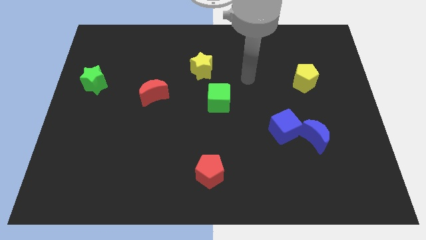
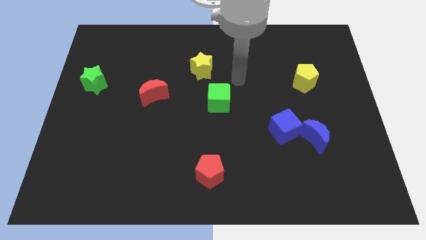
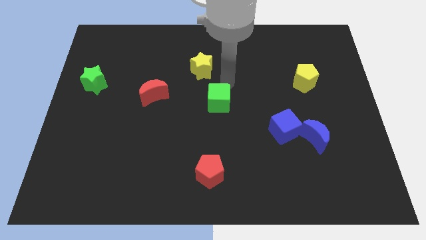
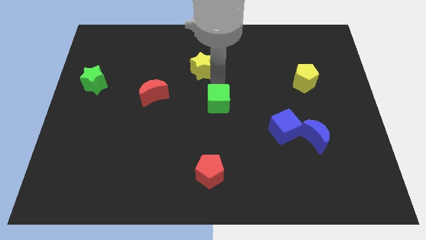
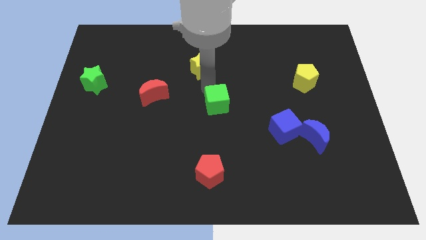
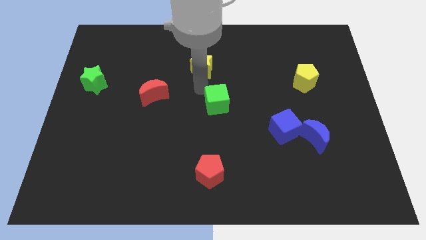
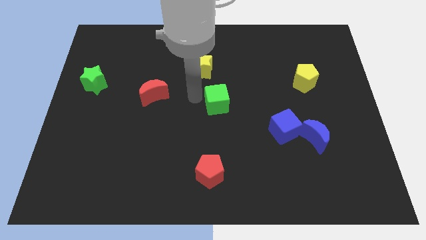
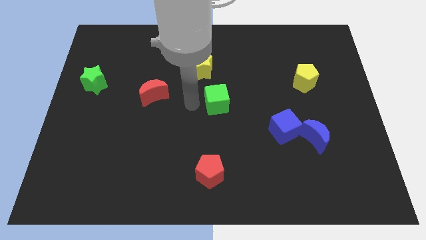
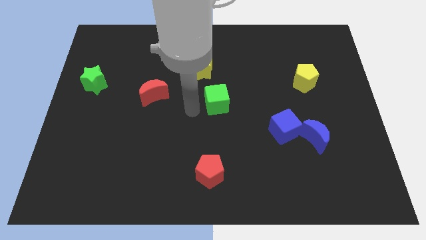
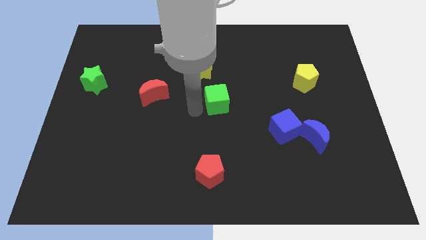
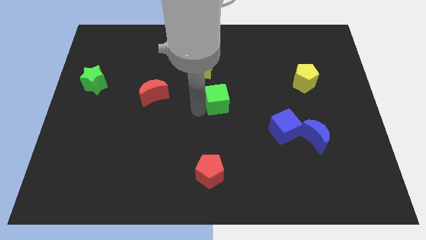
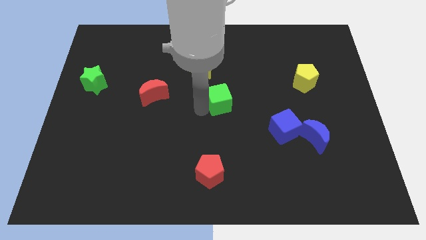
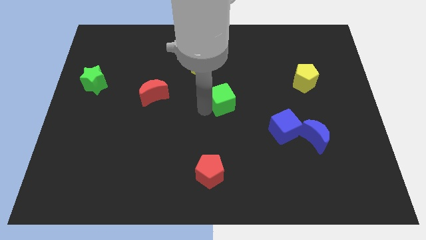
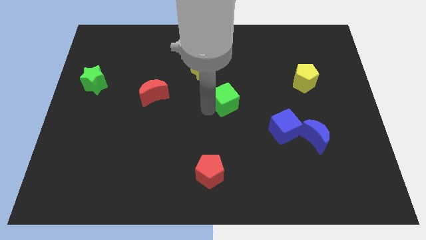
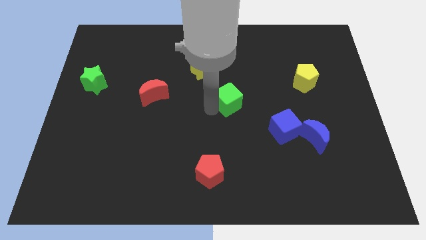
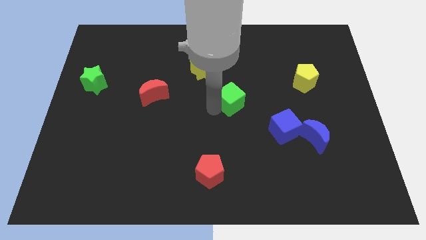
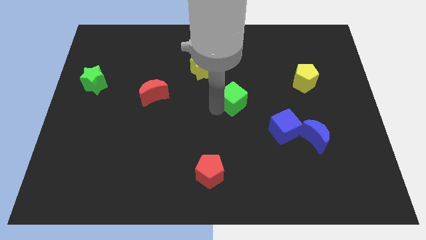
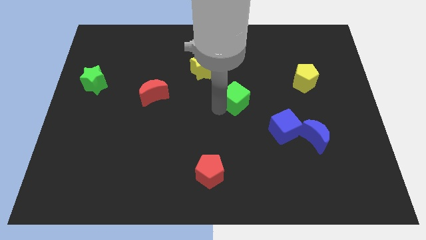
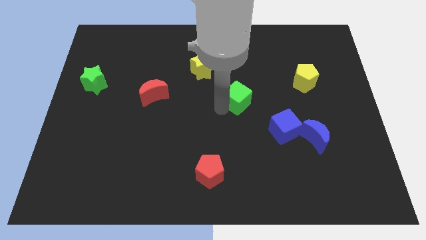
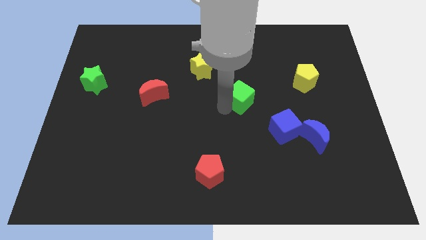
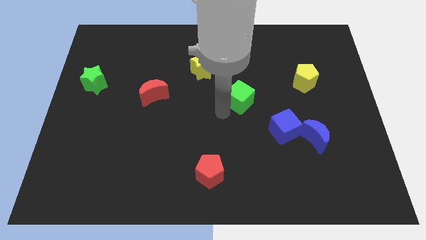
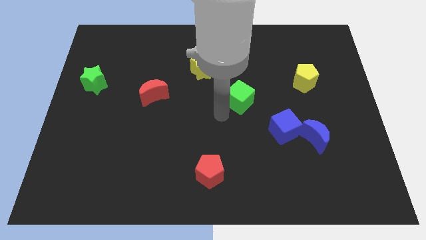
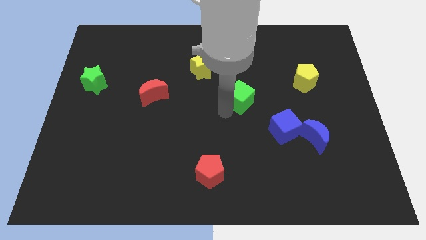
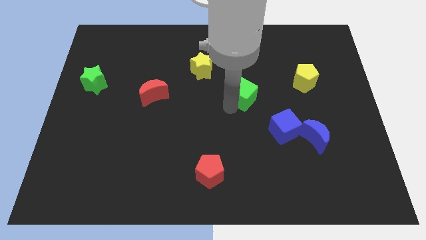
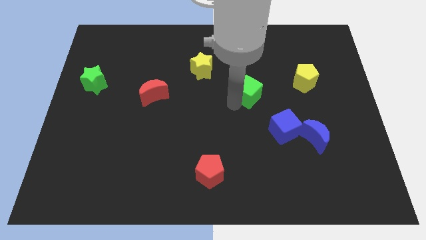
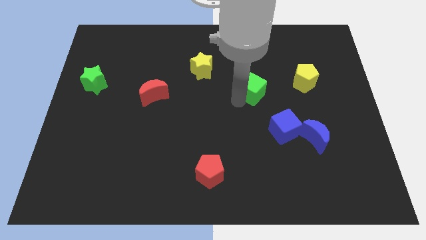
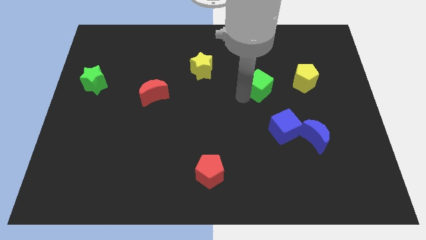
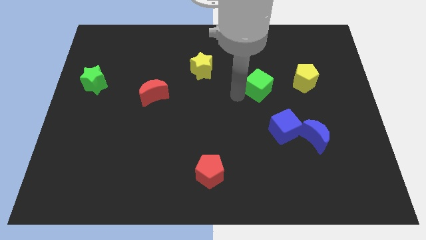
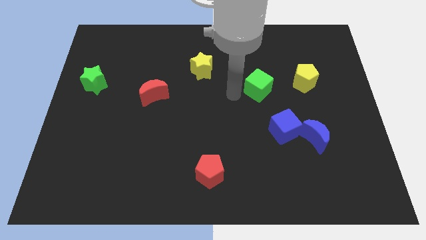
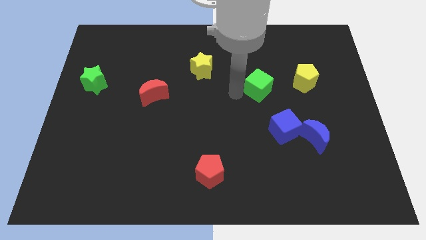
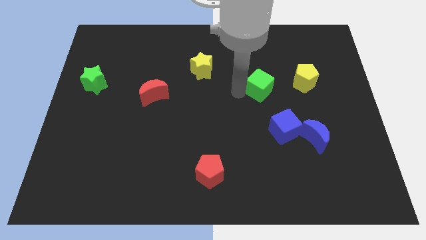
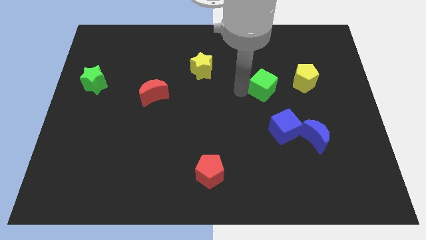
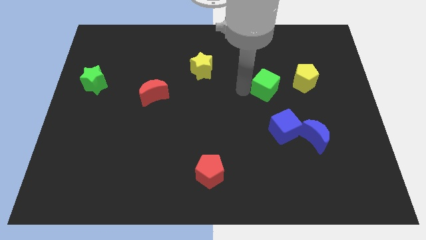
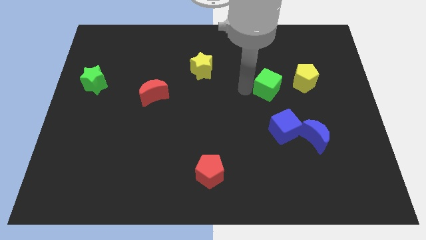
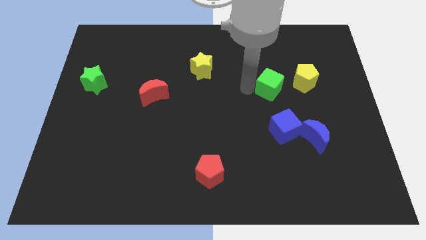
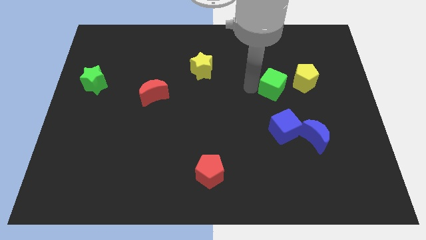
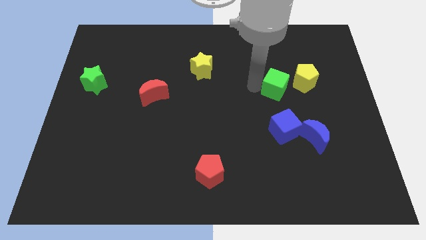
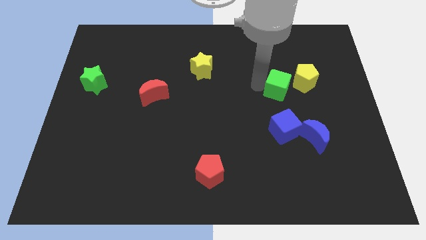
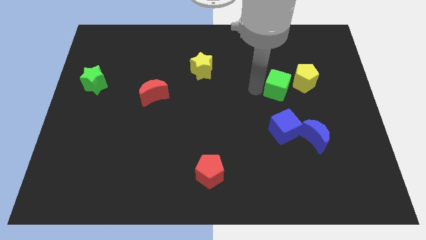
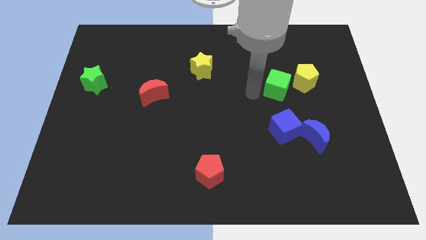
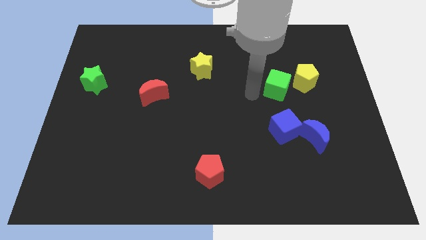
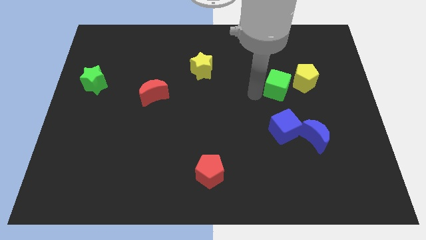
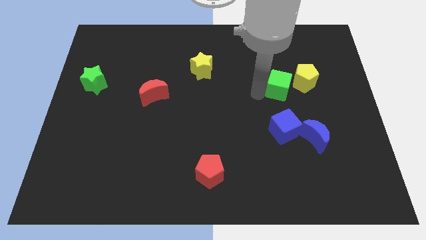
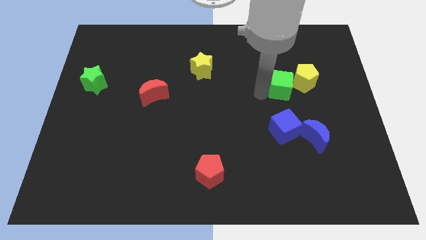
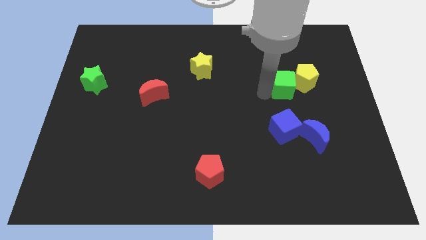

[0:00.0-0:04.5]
move the green cube close to the yellow pentagon

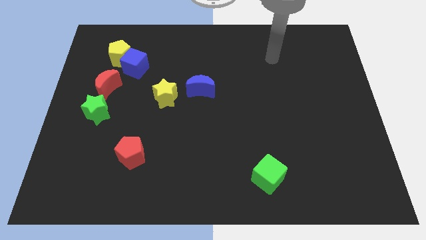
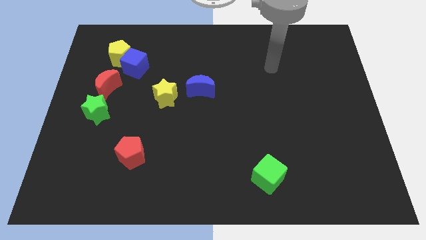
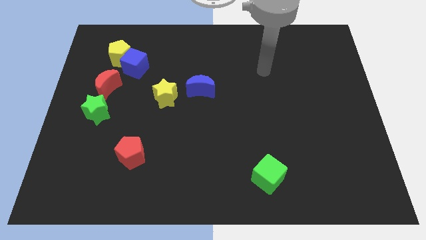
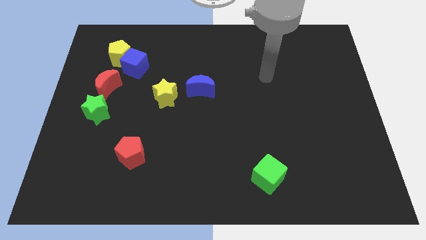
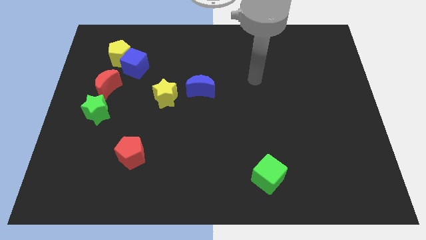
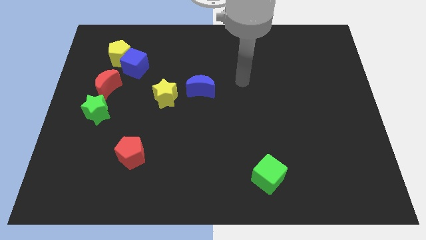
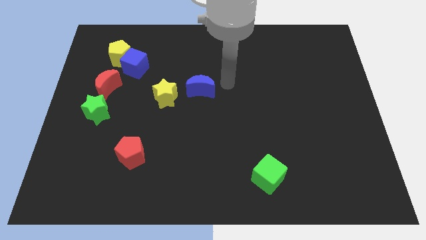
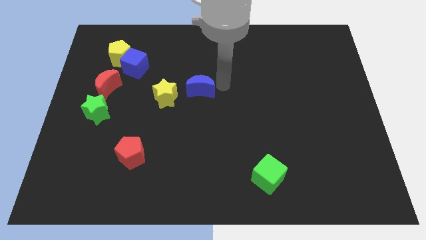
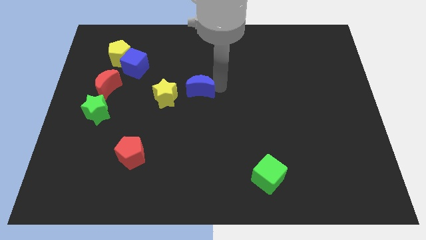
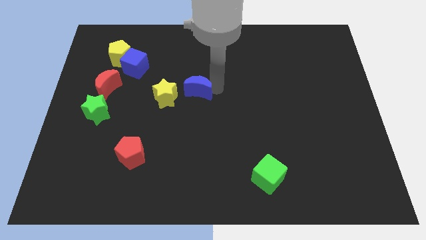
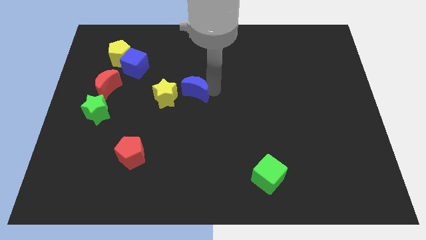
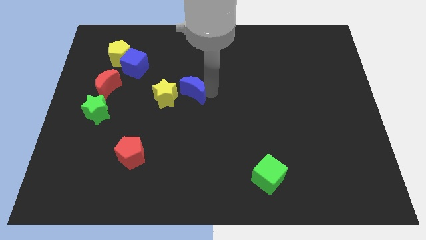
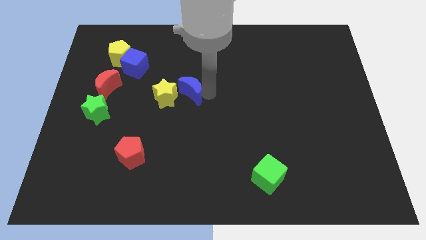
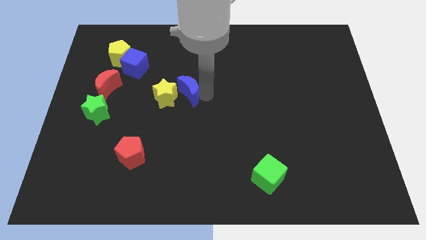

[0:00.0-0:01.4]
put the blue moon to the yellow star

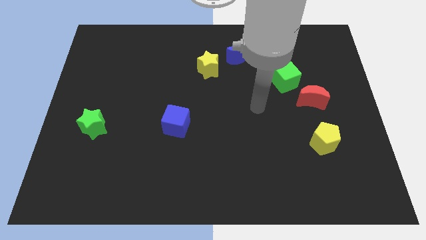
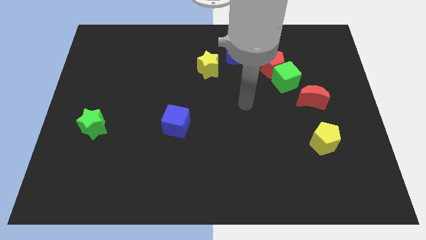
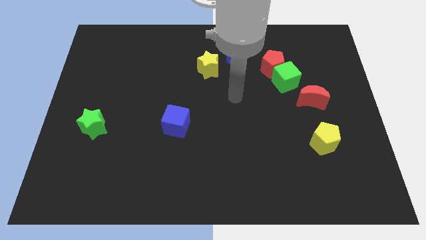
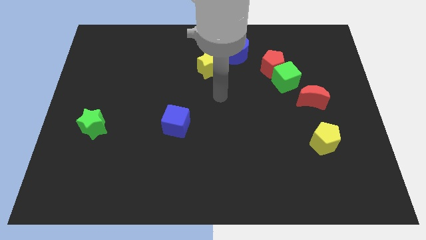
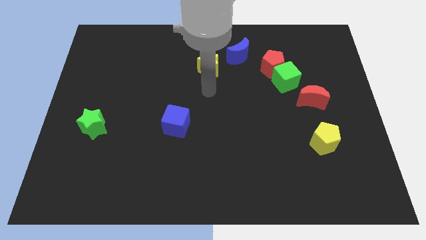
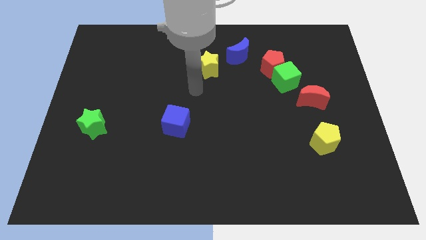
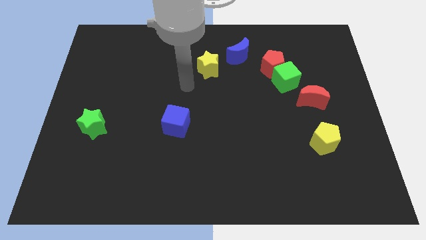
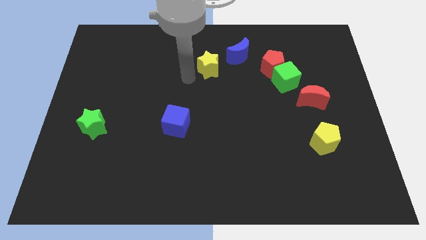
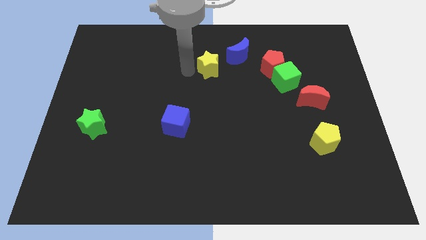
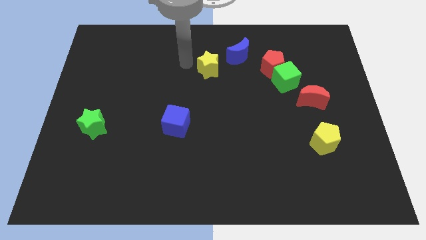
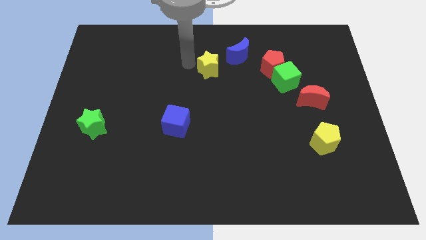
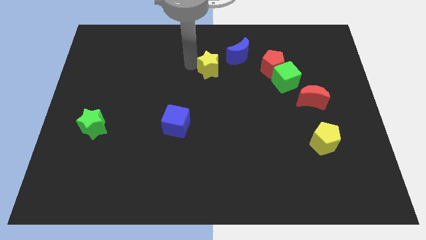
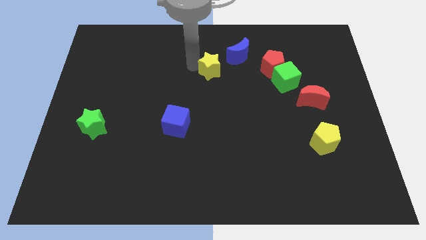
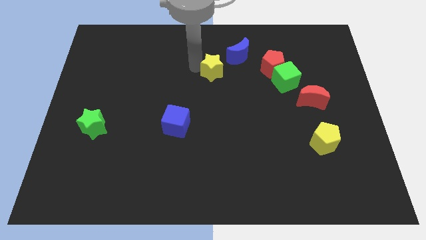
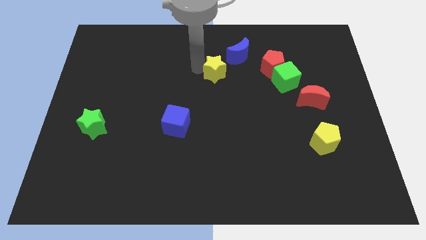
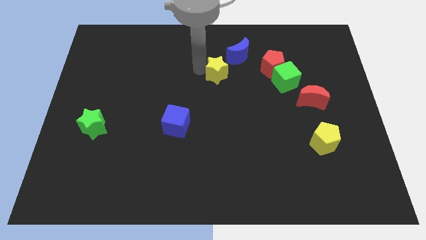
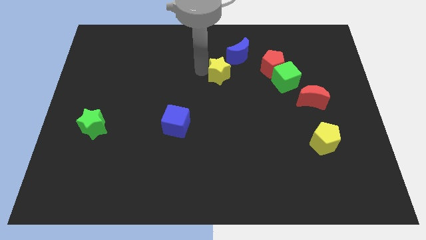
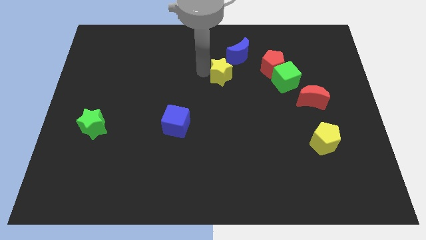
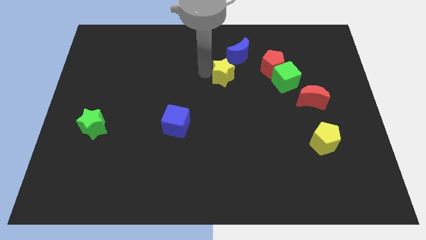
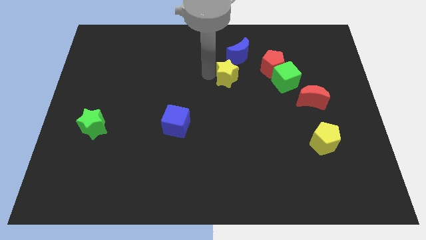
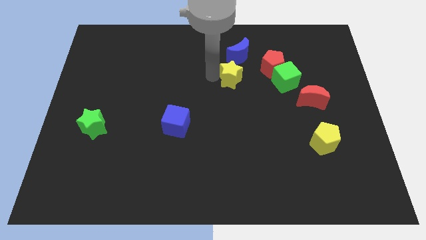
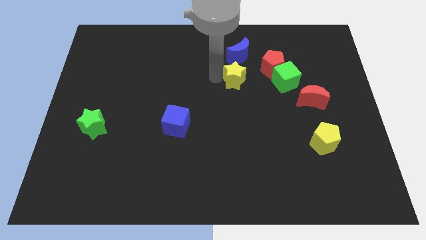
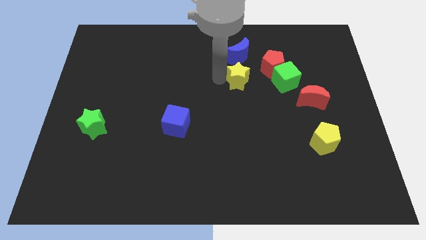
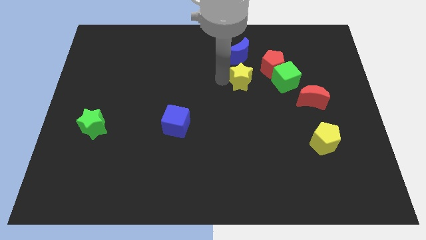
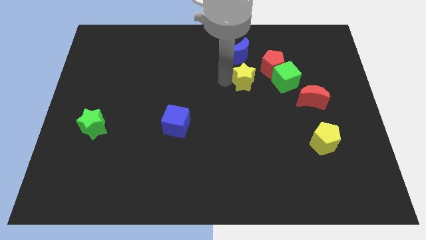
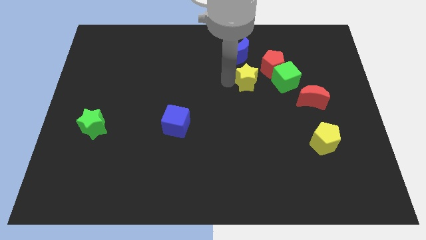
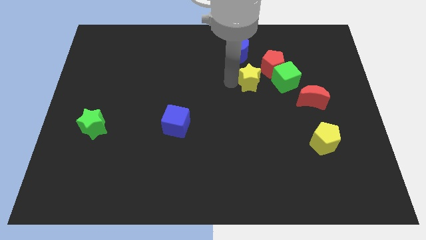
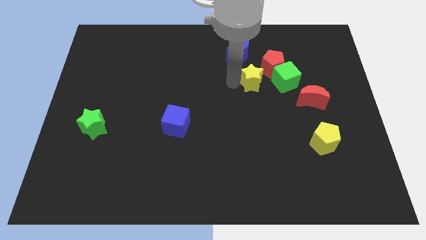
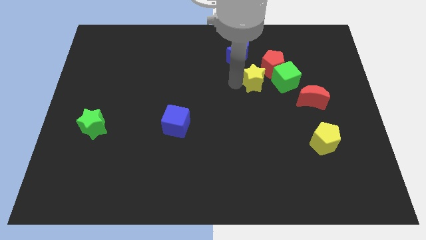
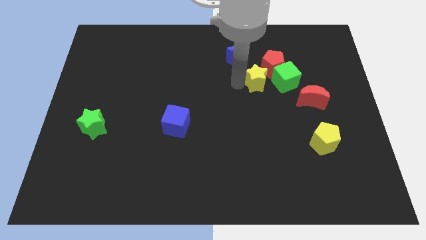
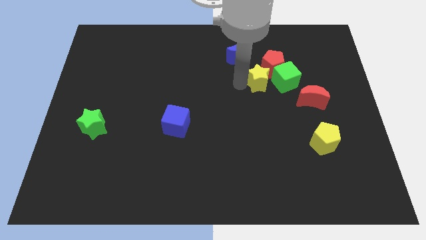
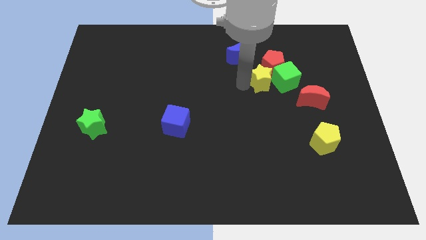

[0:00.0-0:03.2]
put the yellow star to the green cube

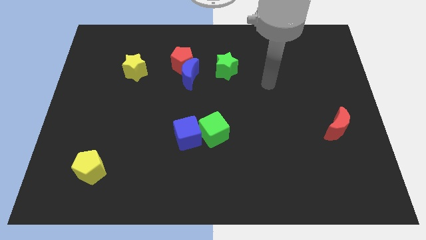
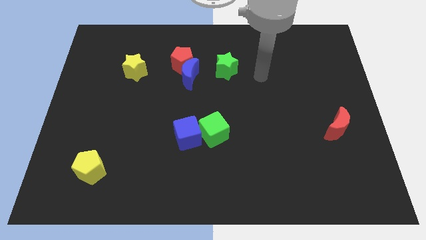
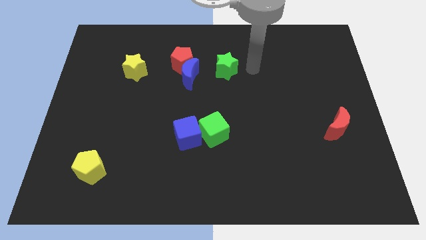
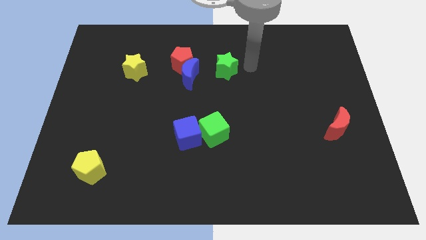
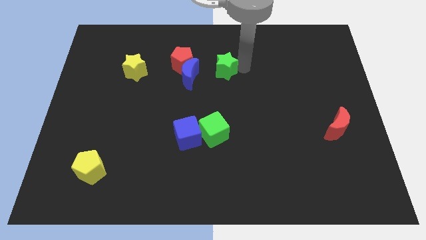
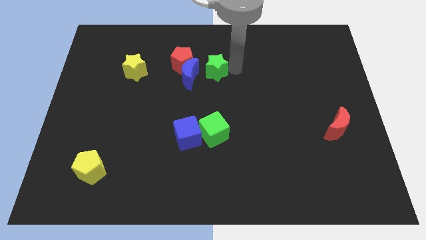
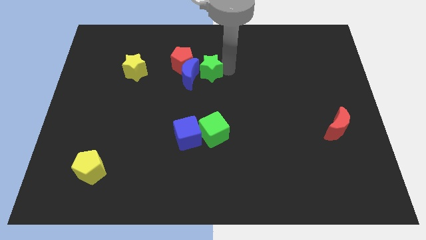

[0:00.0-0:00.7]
move the green star next to the blue moon
